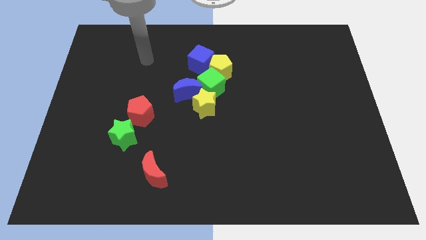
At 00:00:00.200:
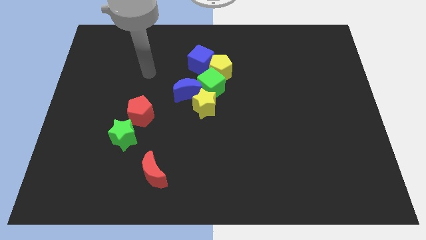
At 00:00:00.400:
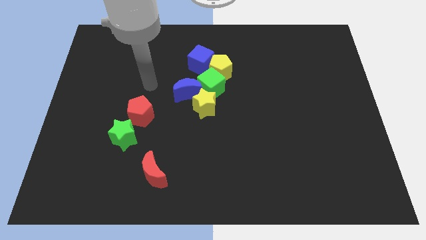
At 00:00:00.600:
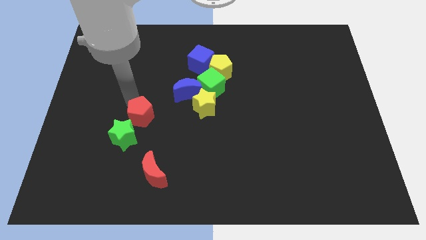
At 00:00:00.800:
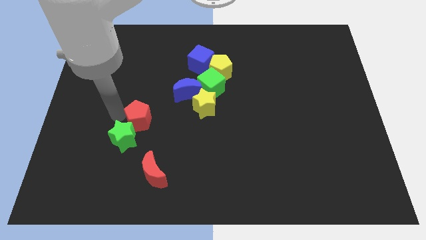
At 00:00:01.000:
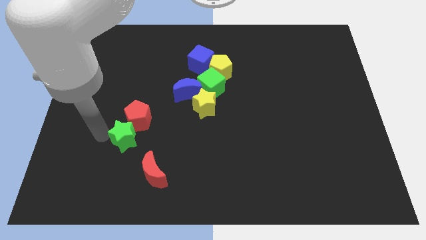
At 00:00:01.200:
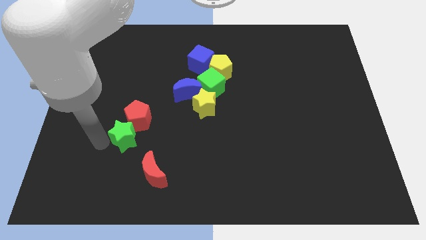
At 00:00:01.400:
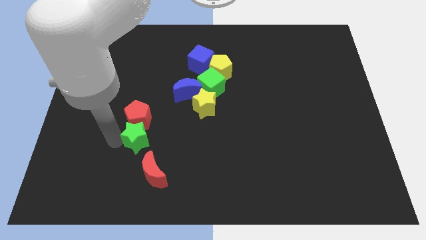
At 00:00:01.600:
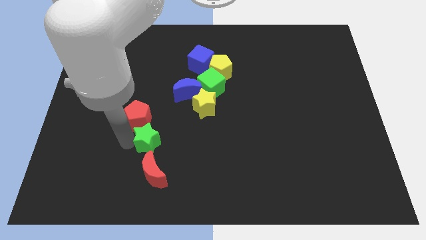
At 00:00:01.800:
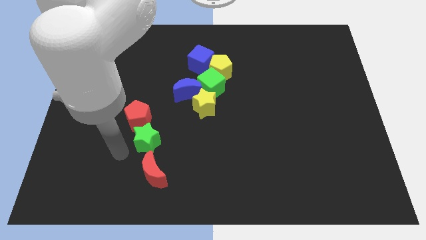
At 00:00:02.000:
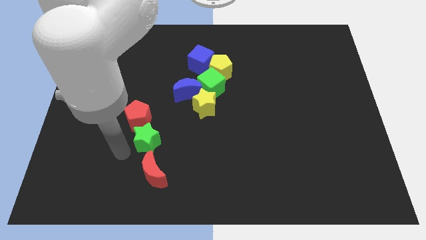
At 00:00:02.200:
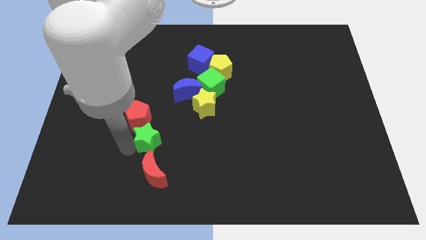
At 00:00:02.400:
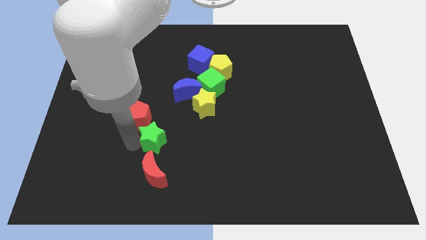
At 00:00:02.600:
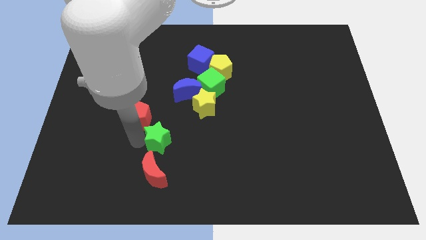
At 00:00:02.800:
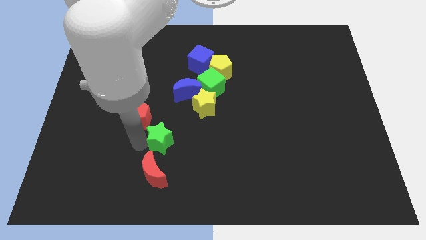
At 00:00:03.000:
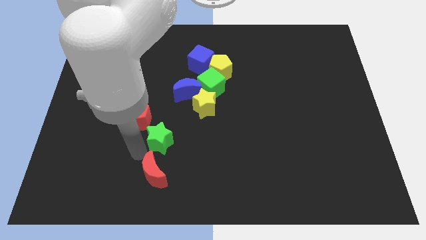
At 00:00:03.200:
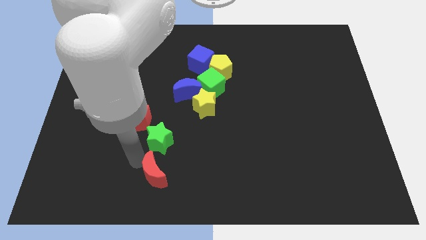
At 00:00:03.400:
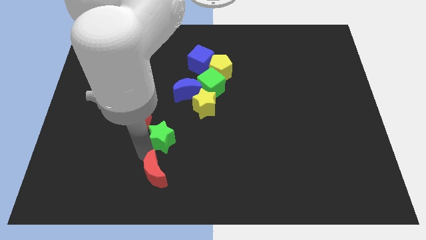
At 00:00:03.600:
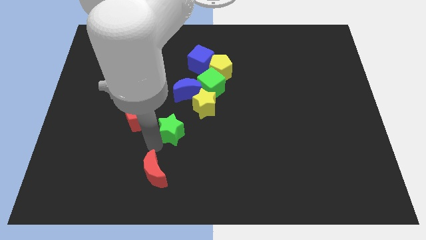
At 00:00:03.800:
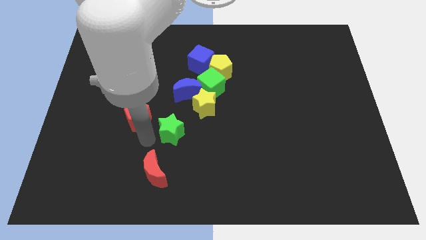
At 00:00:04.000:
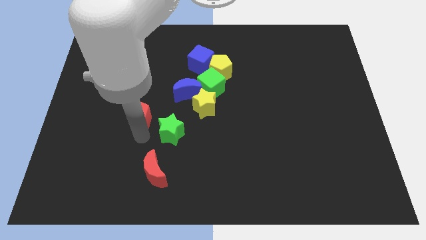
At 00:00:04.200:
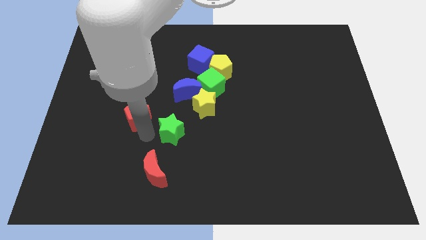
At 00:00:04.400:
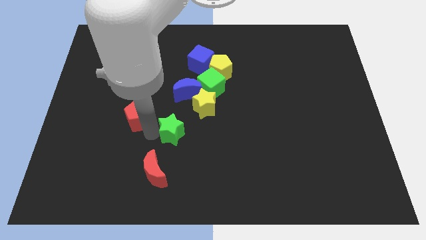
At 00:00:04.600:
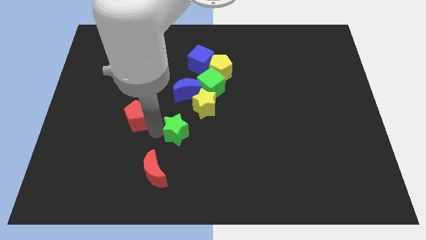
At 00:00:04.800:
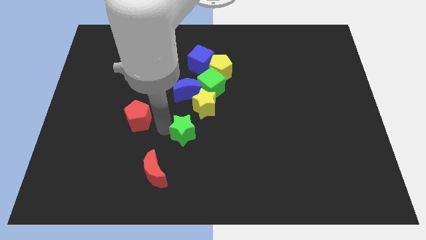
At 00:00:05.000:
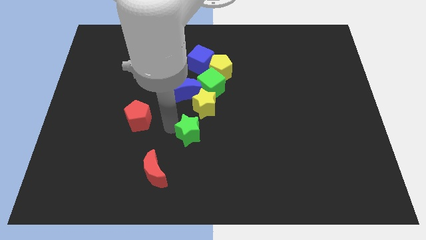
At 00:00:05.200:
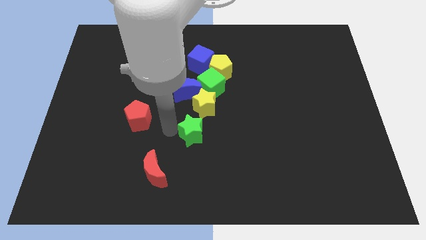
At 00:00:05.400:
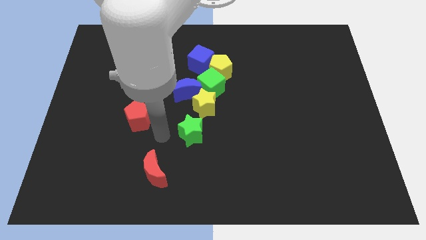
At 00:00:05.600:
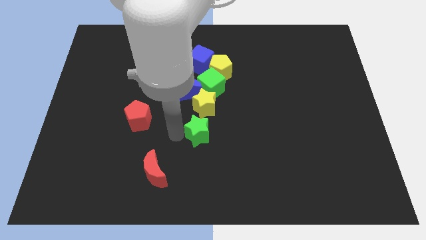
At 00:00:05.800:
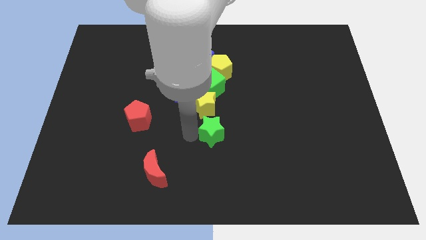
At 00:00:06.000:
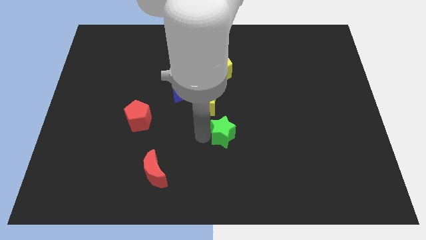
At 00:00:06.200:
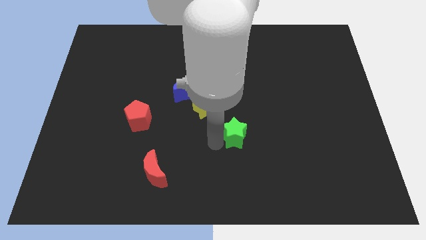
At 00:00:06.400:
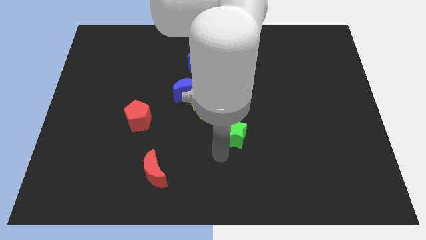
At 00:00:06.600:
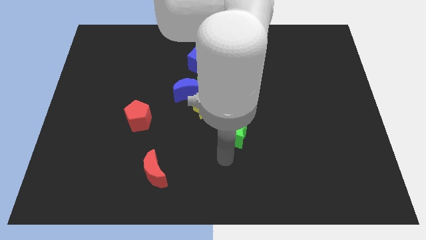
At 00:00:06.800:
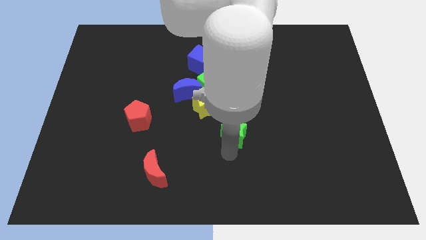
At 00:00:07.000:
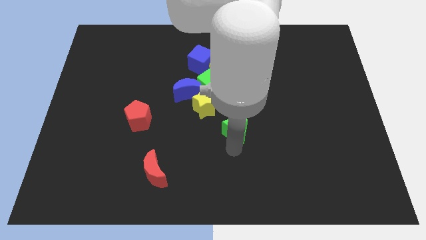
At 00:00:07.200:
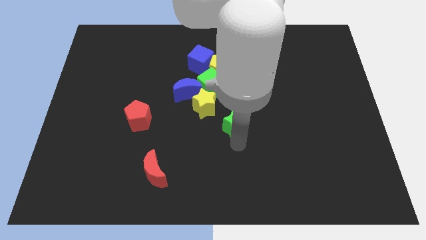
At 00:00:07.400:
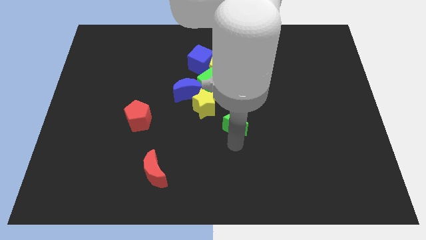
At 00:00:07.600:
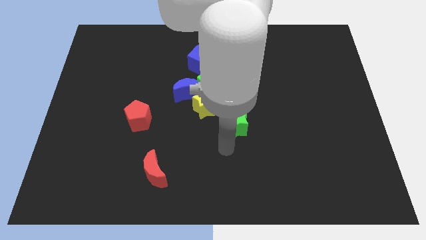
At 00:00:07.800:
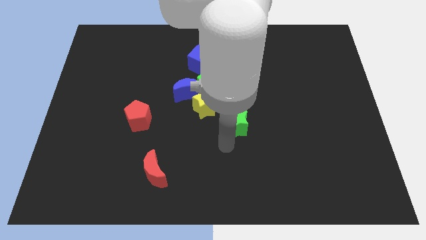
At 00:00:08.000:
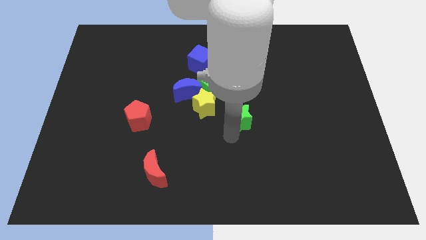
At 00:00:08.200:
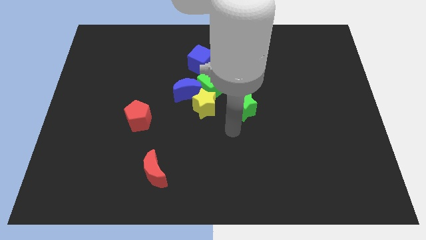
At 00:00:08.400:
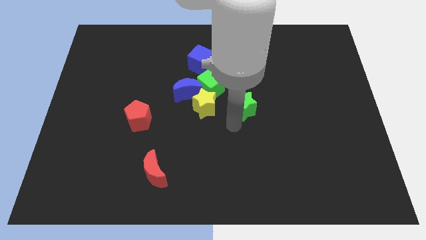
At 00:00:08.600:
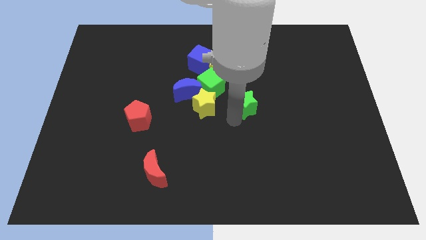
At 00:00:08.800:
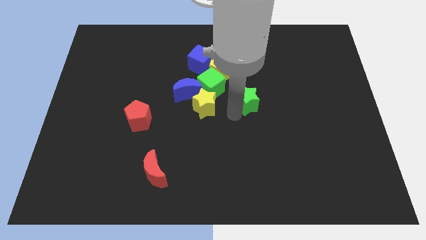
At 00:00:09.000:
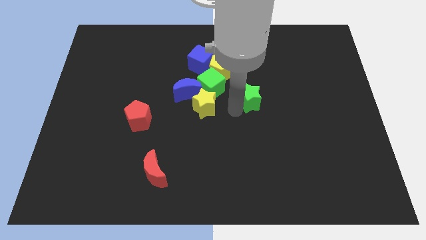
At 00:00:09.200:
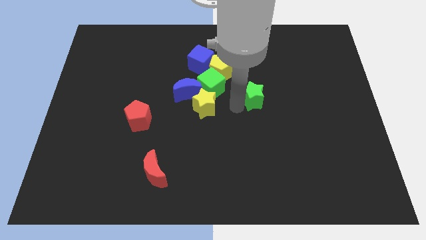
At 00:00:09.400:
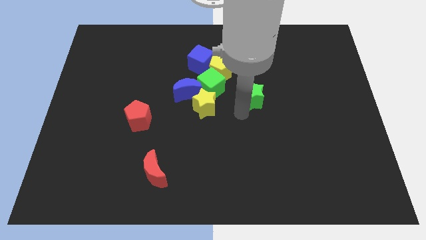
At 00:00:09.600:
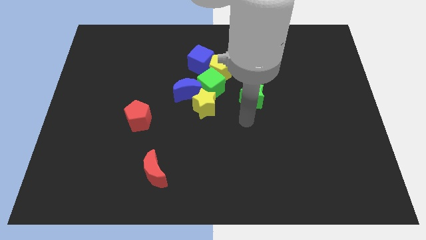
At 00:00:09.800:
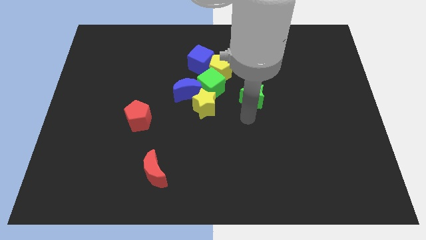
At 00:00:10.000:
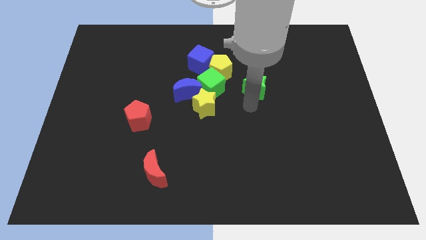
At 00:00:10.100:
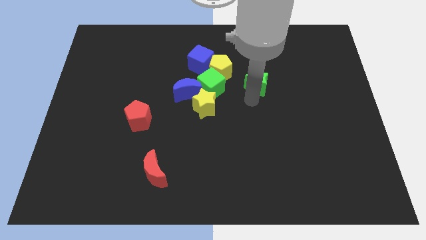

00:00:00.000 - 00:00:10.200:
put the green star right of the yellow pentagon

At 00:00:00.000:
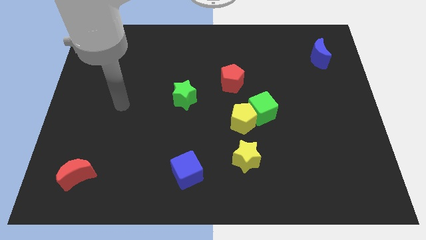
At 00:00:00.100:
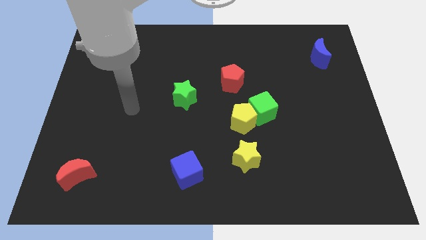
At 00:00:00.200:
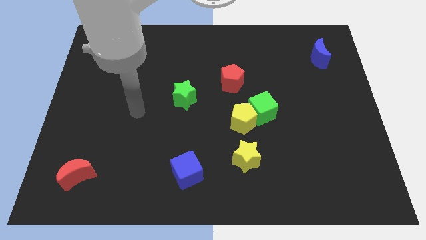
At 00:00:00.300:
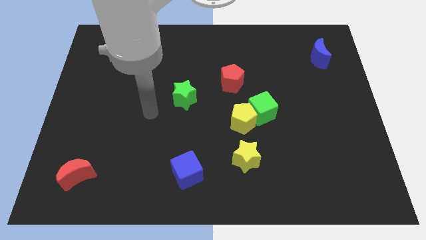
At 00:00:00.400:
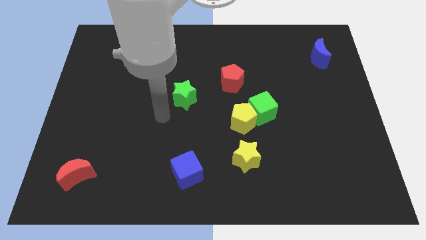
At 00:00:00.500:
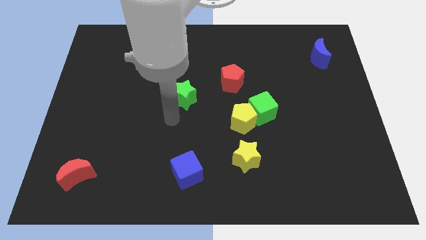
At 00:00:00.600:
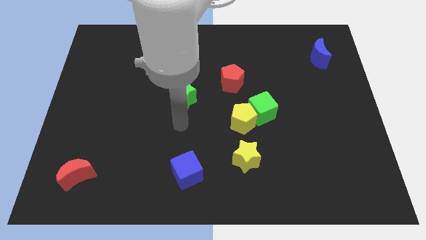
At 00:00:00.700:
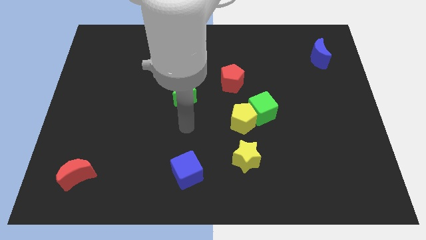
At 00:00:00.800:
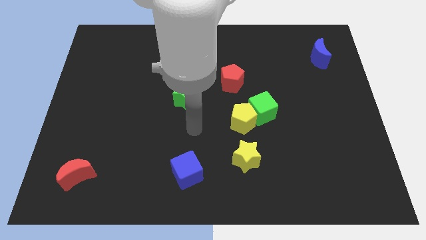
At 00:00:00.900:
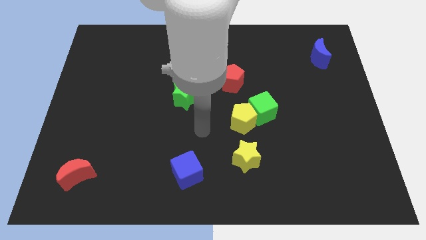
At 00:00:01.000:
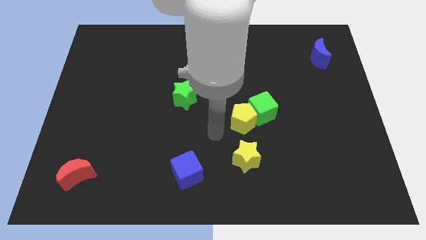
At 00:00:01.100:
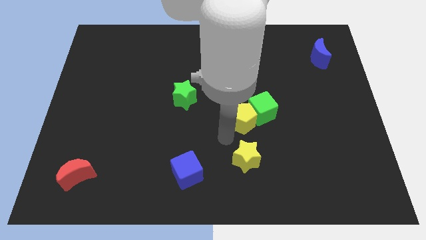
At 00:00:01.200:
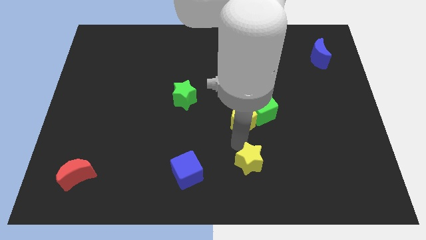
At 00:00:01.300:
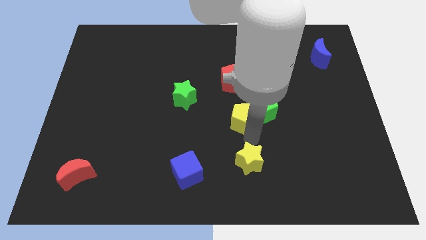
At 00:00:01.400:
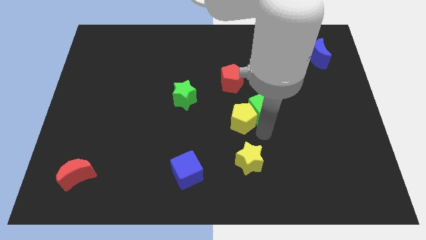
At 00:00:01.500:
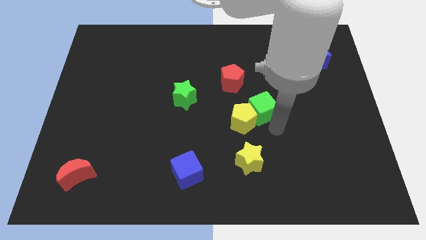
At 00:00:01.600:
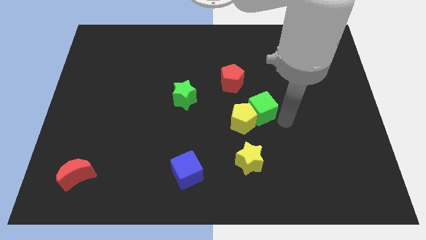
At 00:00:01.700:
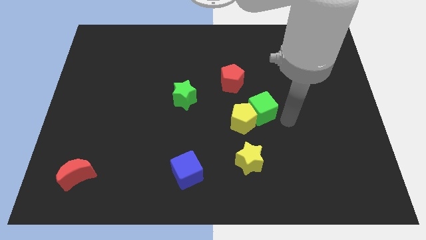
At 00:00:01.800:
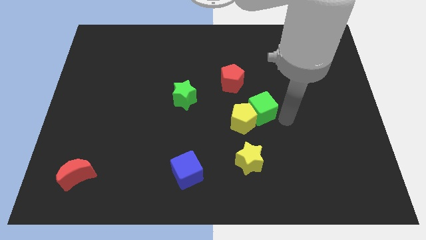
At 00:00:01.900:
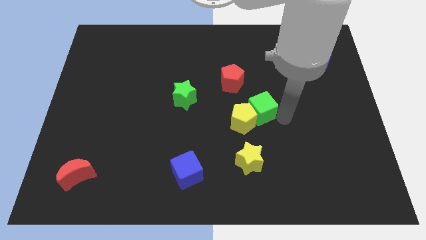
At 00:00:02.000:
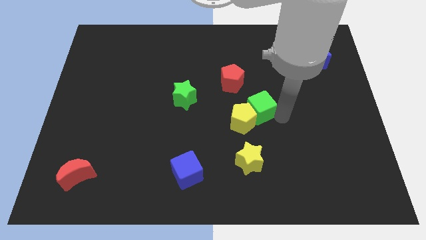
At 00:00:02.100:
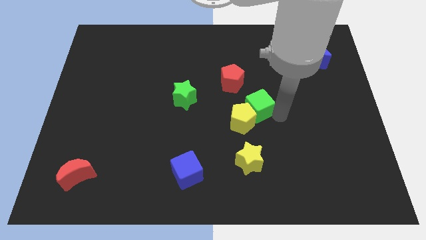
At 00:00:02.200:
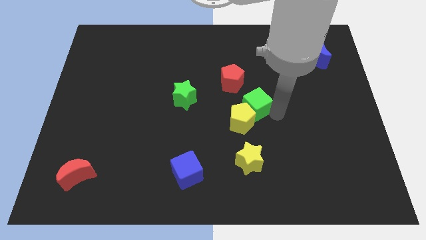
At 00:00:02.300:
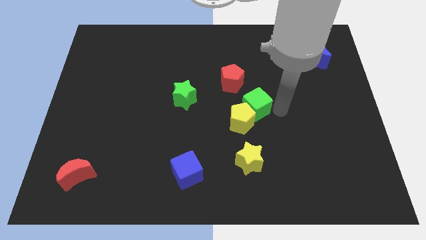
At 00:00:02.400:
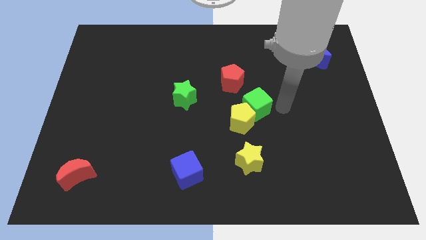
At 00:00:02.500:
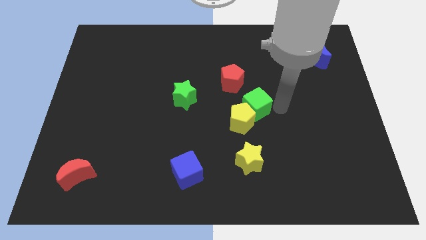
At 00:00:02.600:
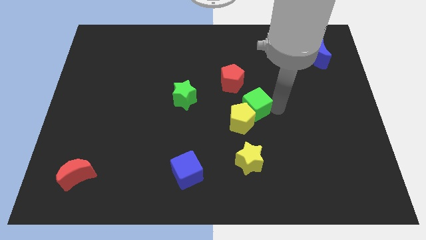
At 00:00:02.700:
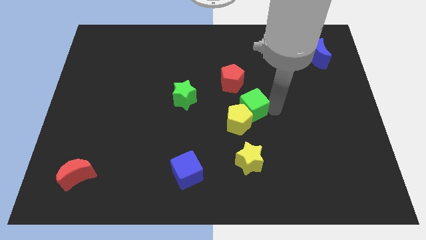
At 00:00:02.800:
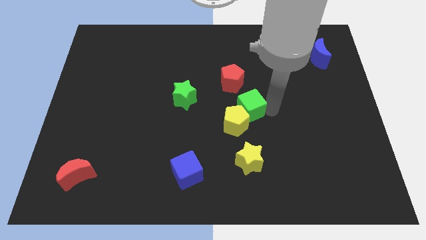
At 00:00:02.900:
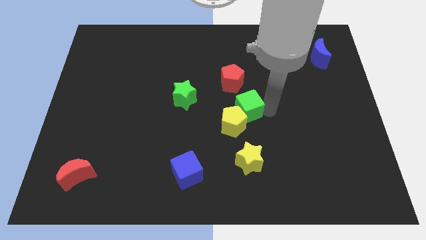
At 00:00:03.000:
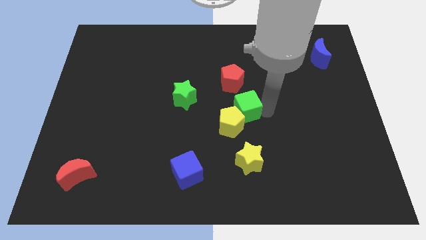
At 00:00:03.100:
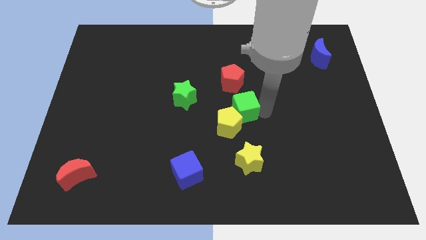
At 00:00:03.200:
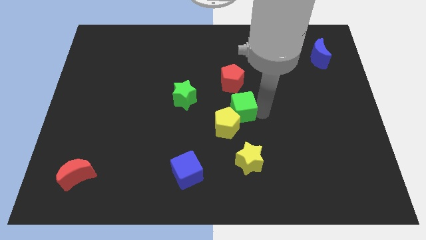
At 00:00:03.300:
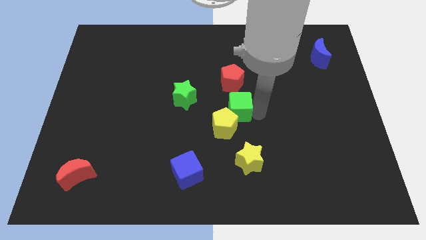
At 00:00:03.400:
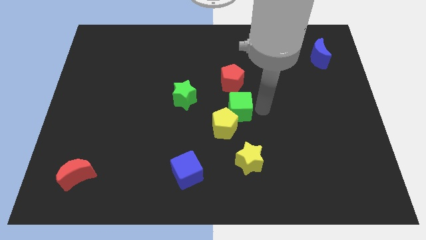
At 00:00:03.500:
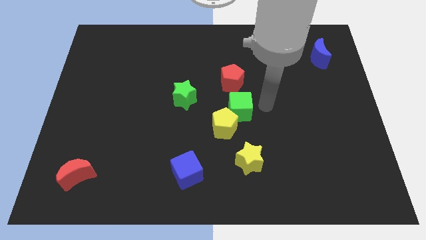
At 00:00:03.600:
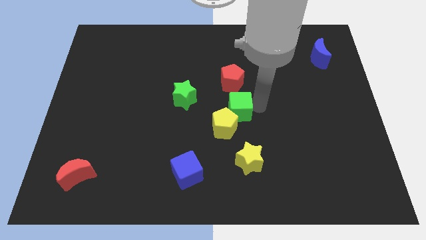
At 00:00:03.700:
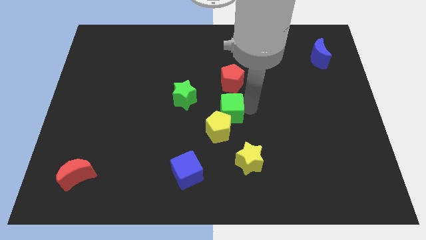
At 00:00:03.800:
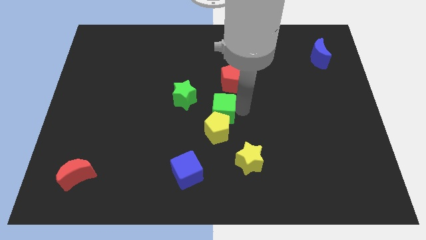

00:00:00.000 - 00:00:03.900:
slide the green cube to the bottom right of the green star
